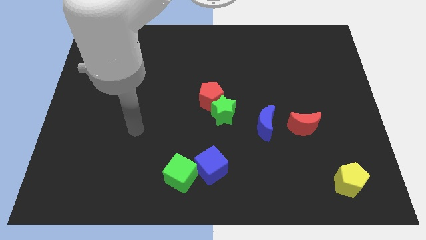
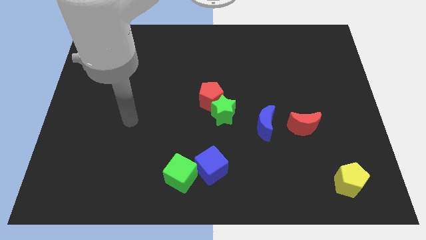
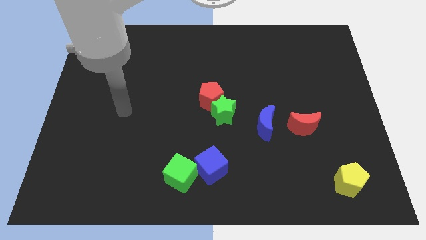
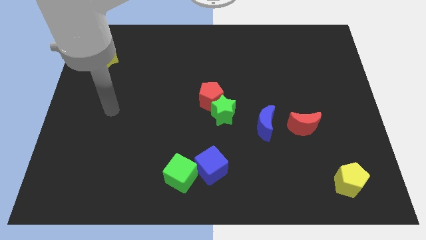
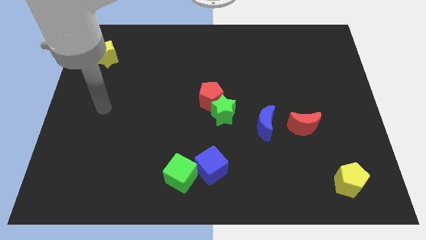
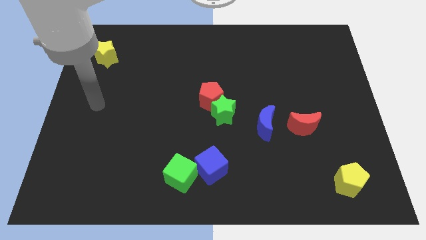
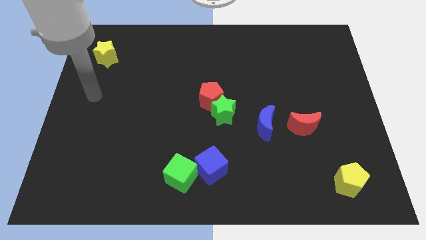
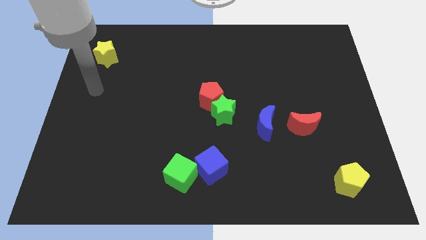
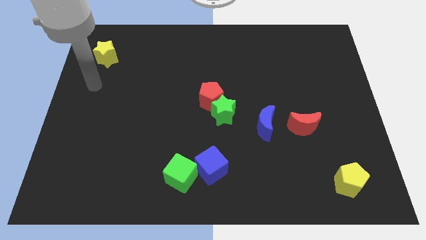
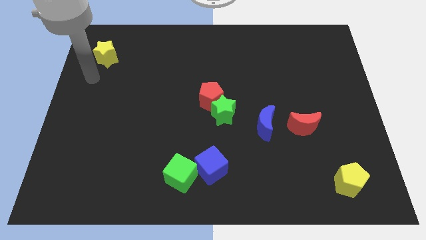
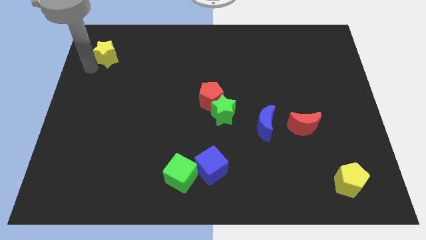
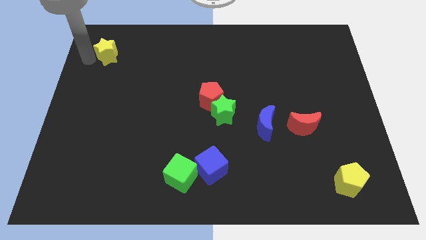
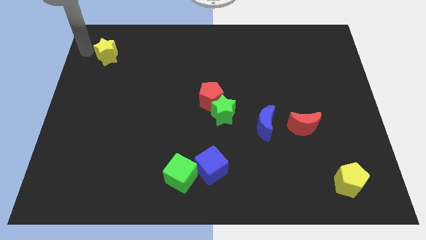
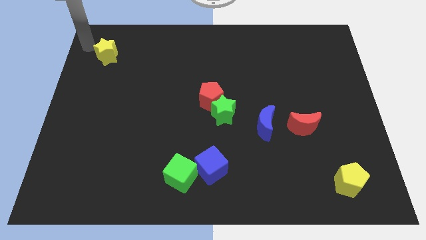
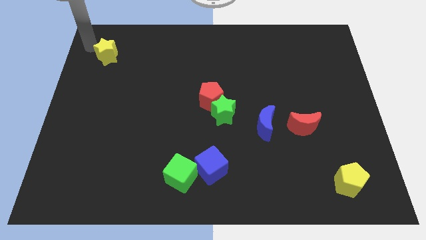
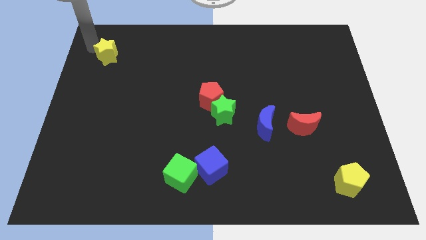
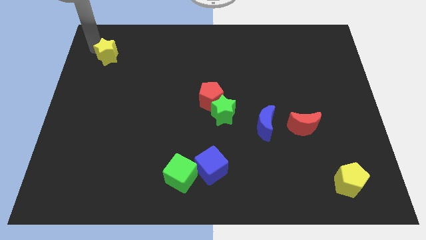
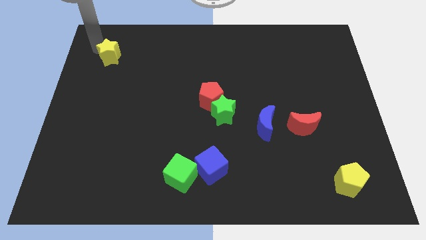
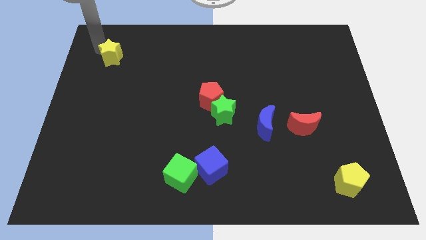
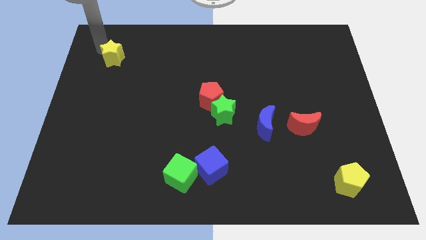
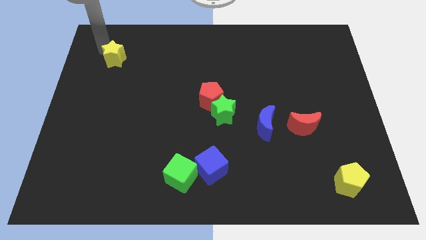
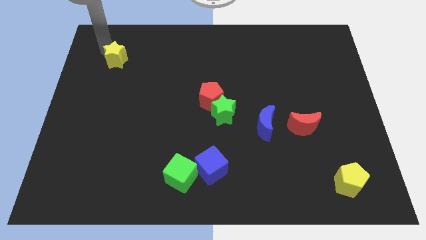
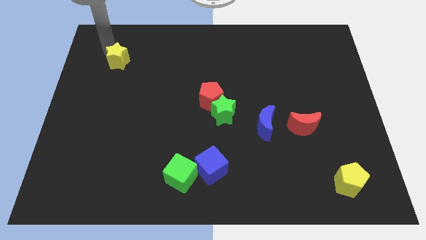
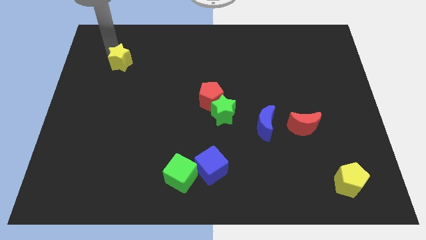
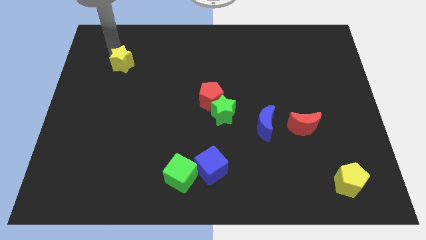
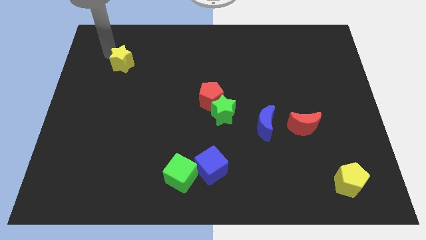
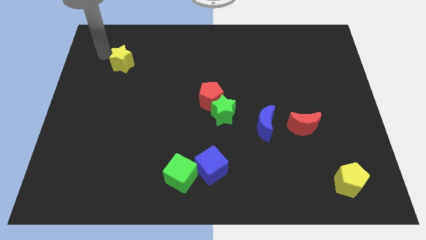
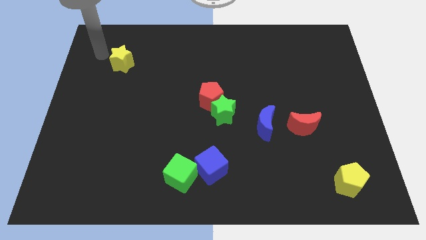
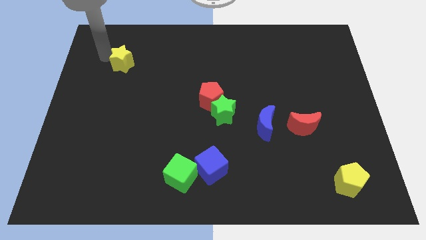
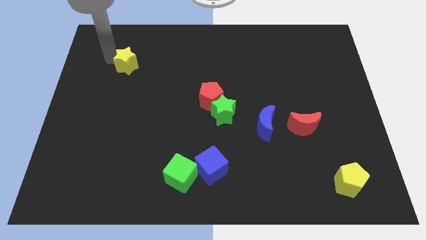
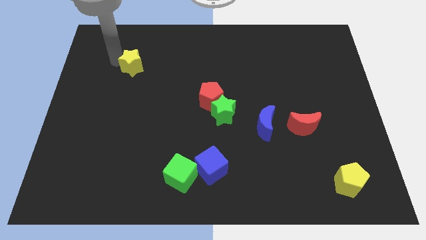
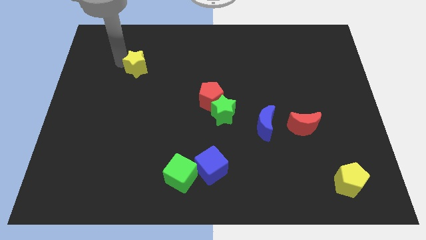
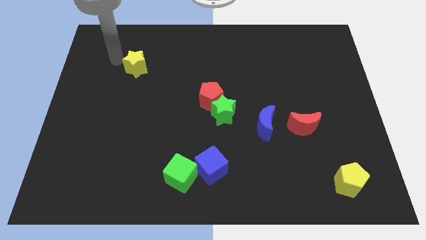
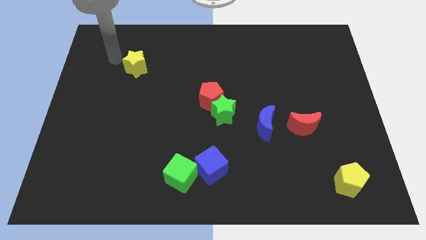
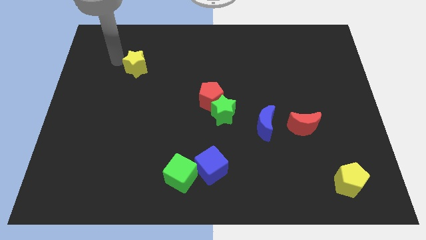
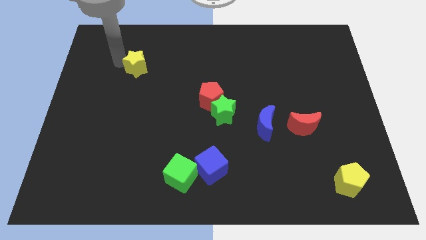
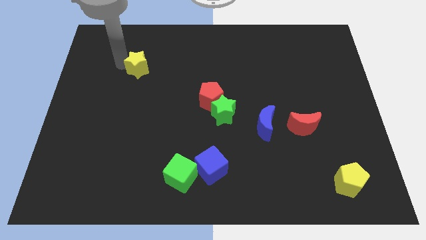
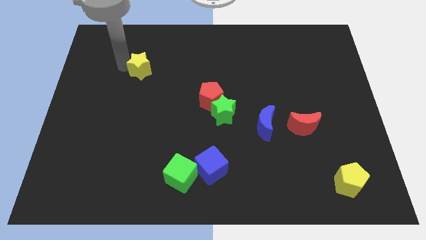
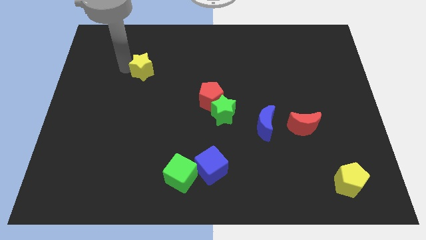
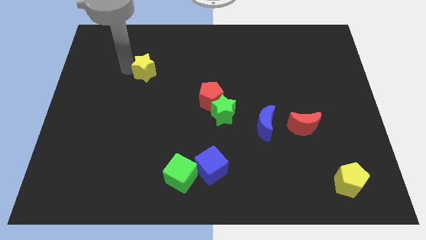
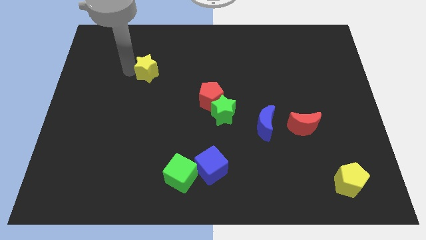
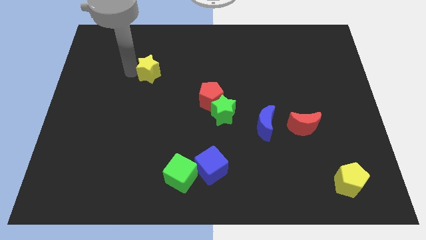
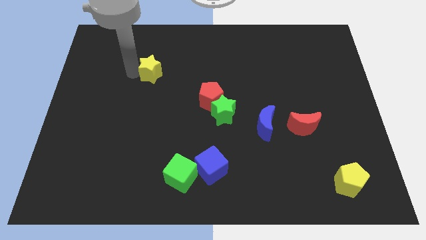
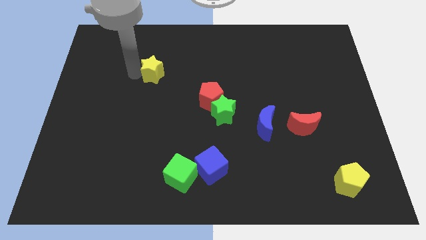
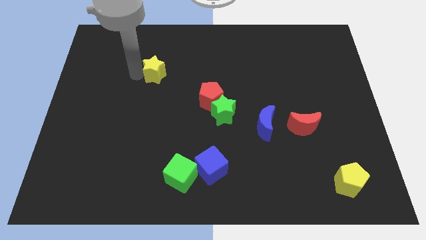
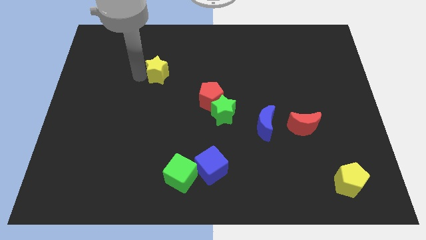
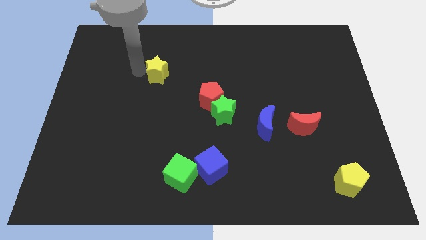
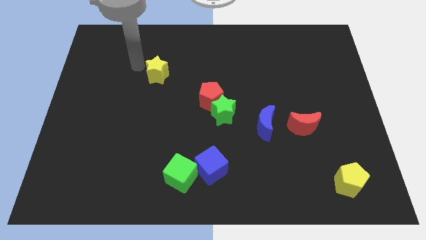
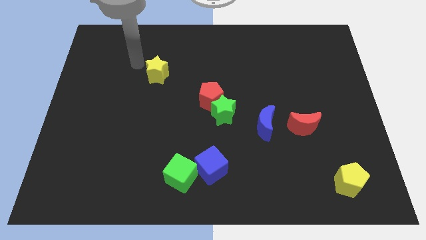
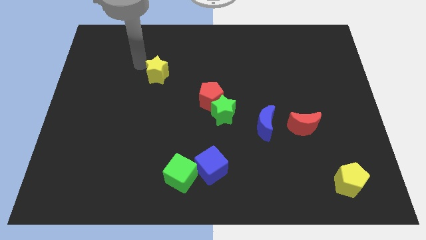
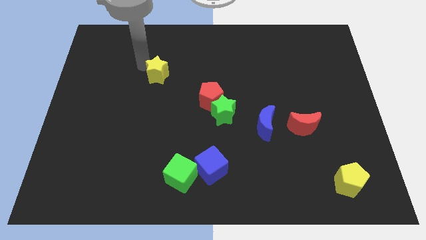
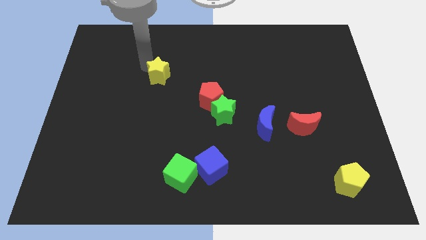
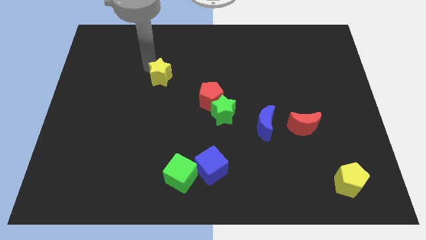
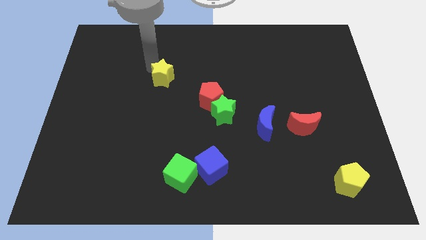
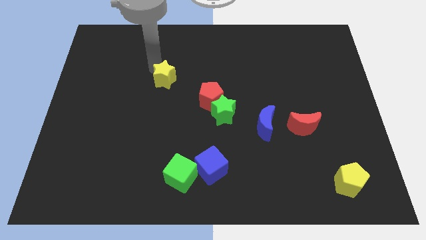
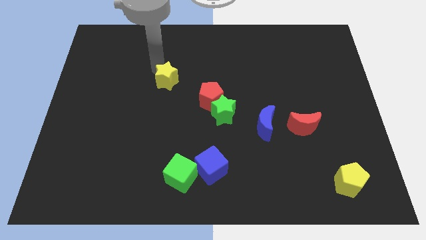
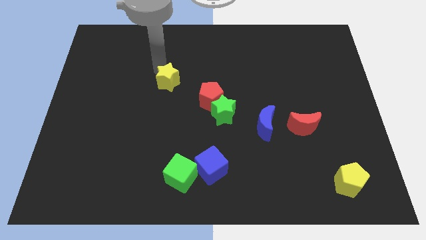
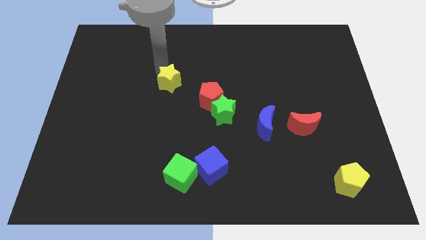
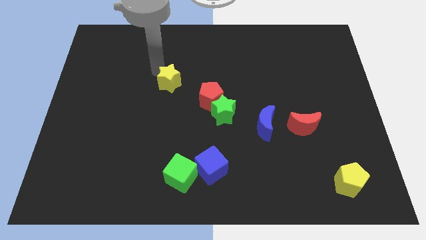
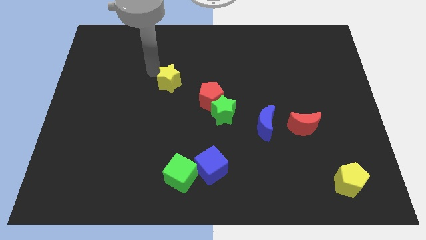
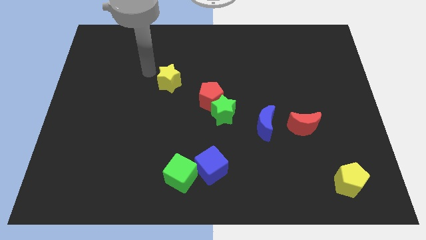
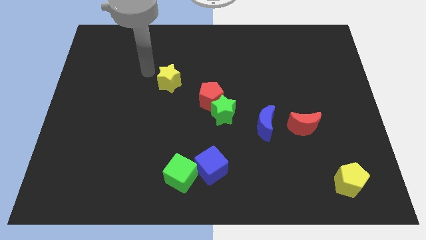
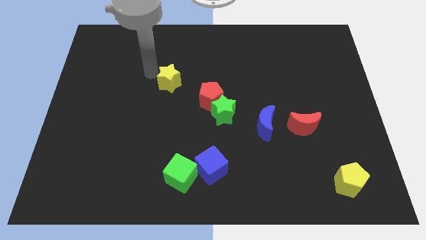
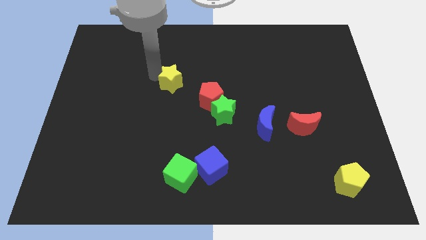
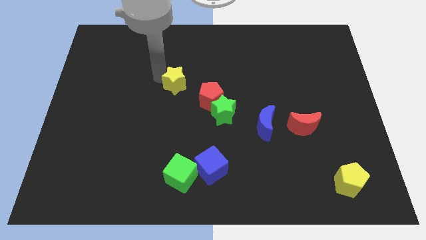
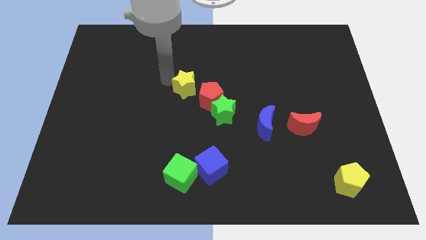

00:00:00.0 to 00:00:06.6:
put the yellow star diagonally up and to the left of the green star

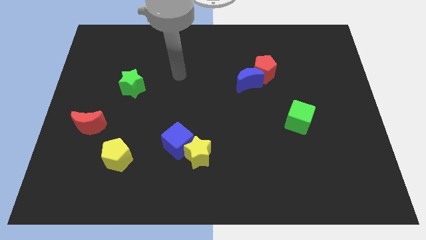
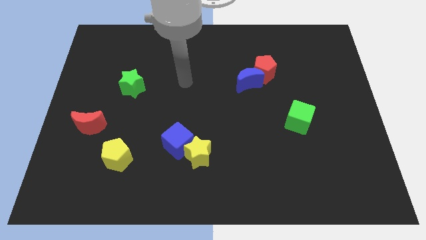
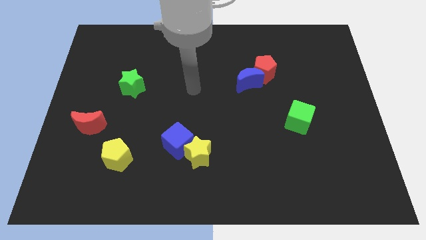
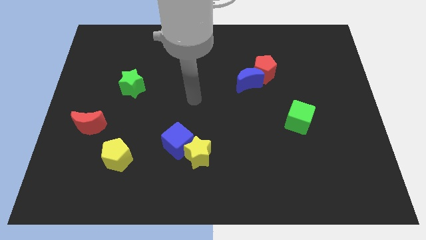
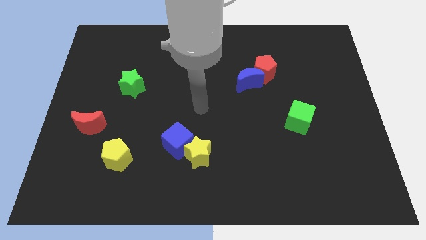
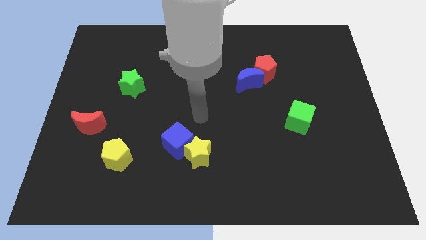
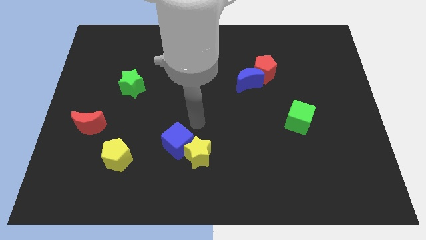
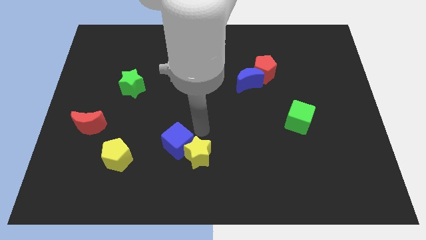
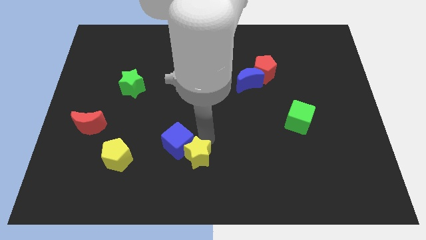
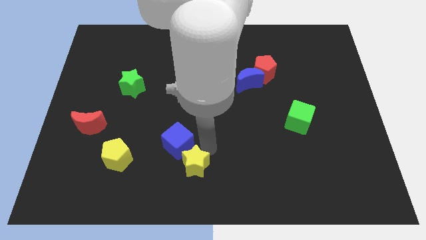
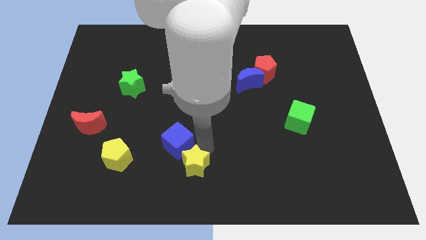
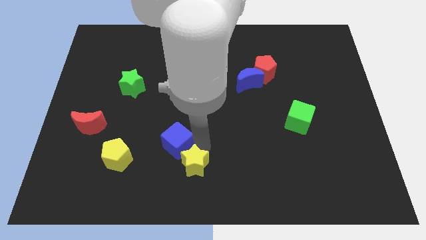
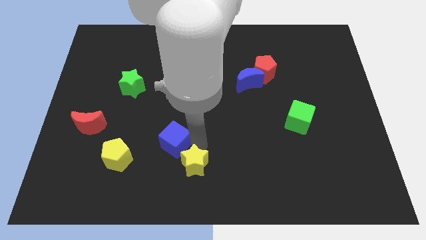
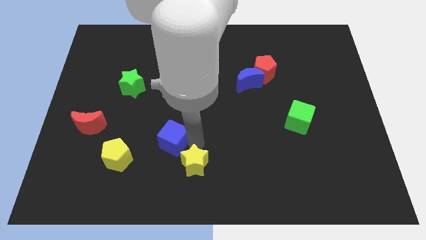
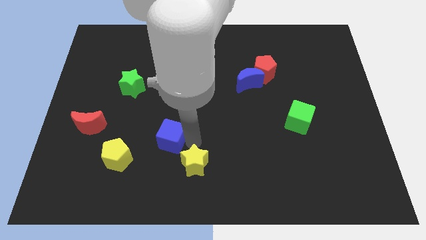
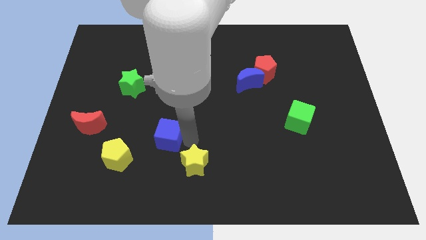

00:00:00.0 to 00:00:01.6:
slide the blue cube to the top right of the yellow pentagon
